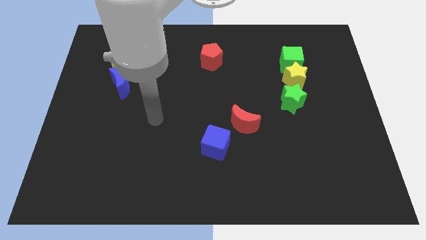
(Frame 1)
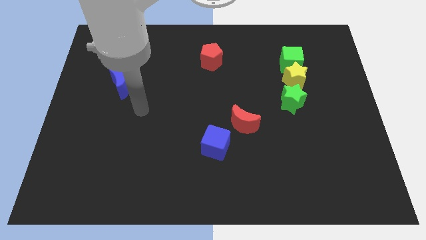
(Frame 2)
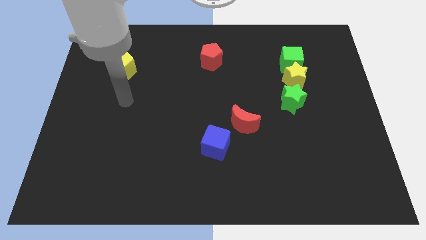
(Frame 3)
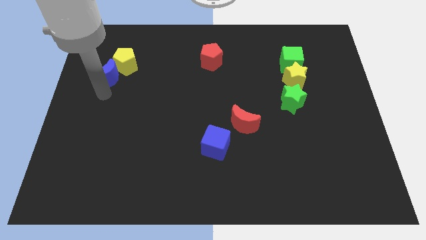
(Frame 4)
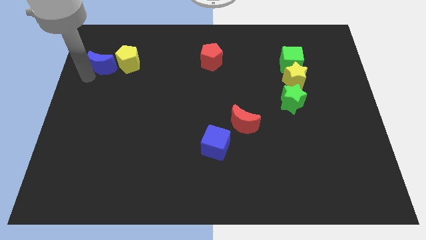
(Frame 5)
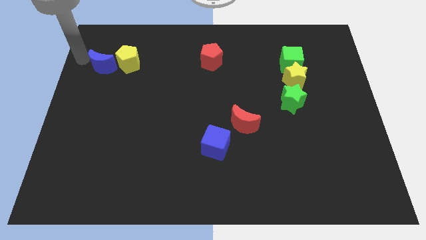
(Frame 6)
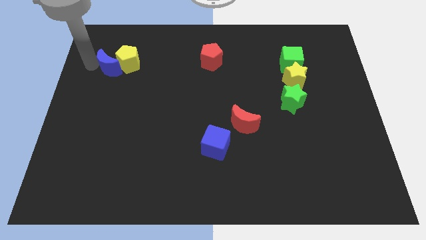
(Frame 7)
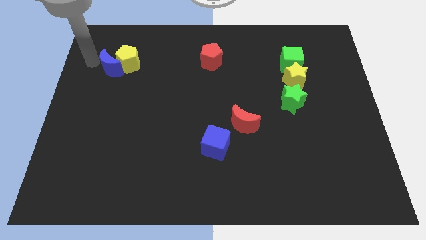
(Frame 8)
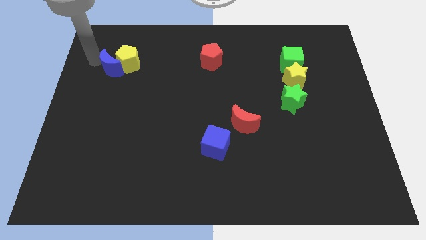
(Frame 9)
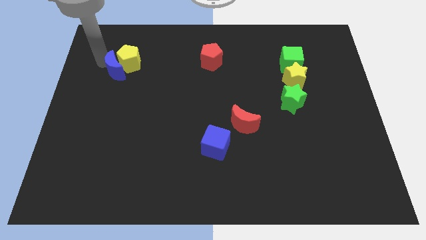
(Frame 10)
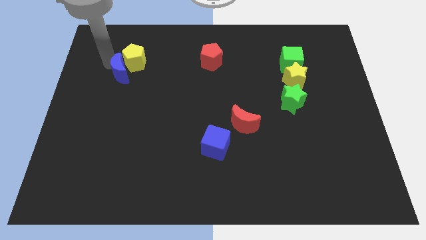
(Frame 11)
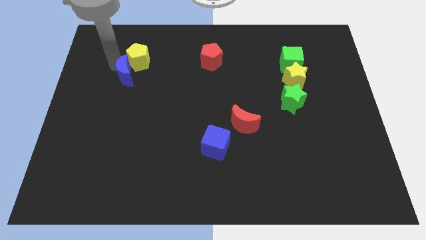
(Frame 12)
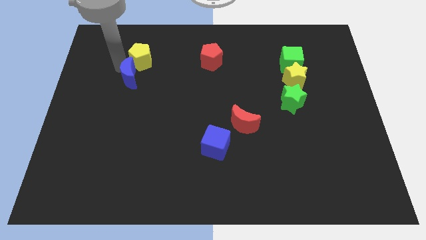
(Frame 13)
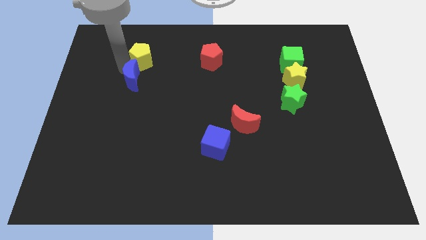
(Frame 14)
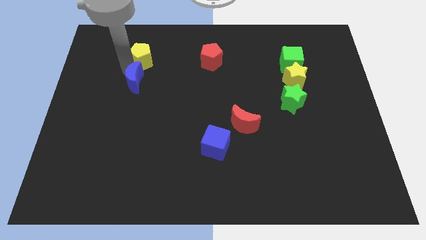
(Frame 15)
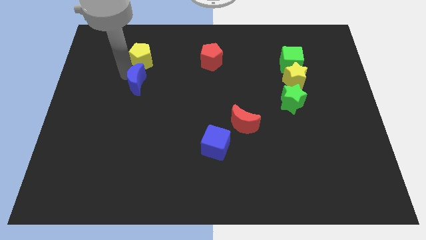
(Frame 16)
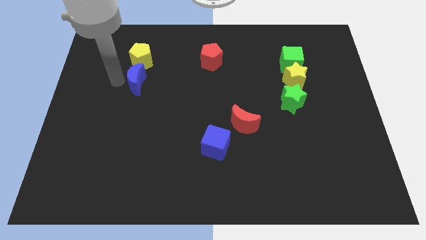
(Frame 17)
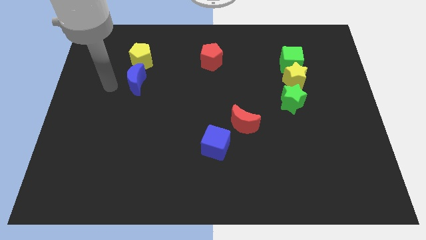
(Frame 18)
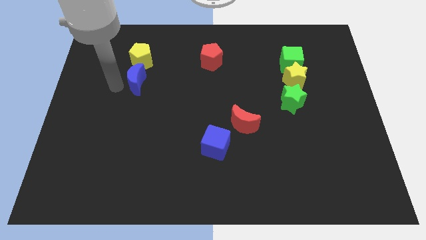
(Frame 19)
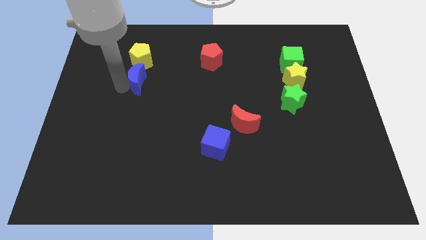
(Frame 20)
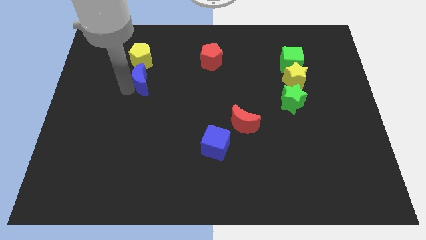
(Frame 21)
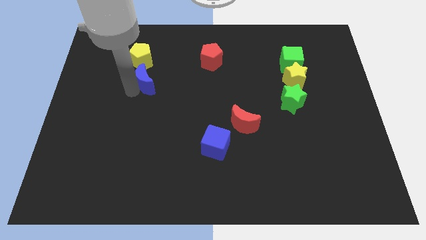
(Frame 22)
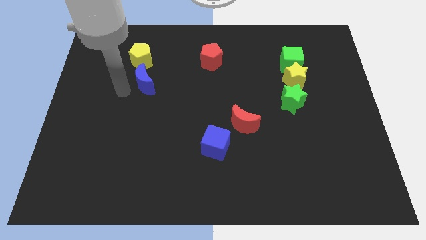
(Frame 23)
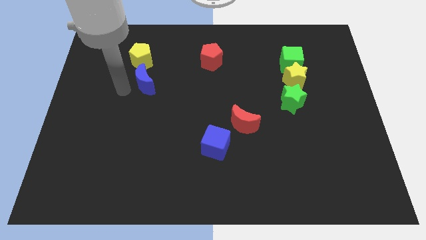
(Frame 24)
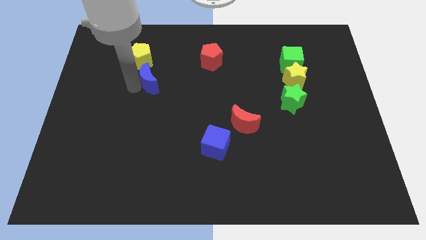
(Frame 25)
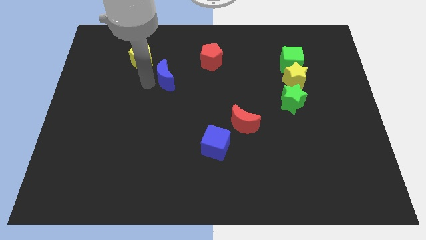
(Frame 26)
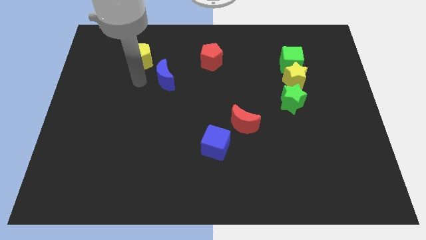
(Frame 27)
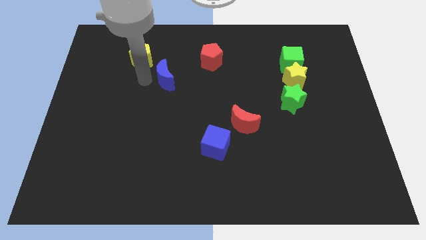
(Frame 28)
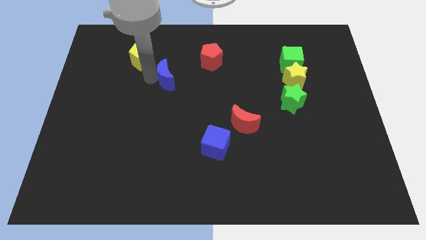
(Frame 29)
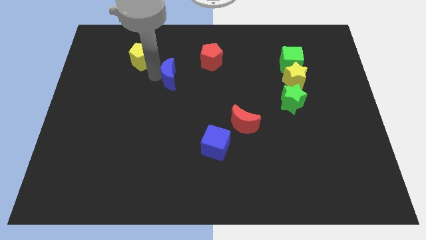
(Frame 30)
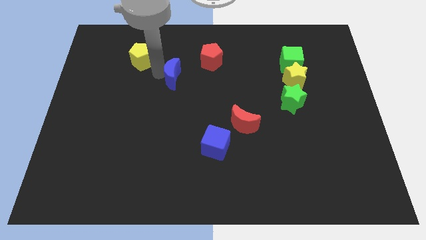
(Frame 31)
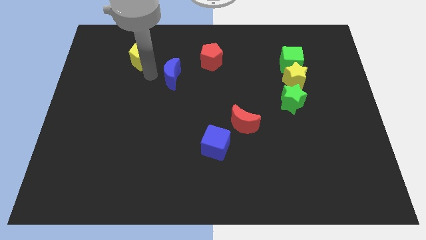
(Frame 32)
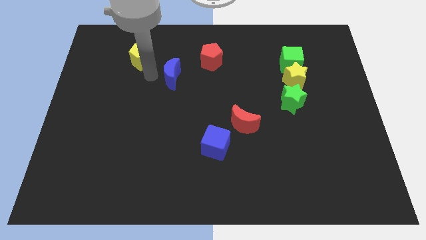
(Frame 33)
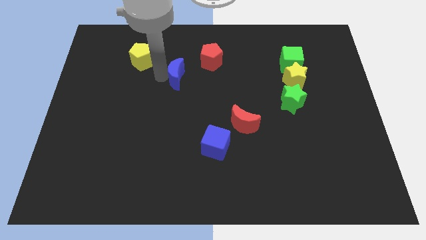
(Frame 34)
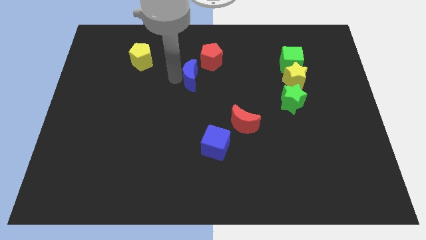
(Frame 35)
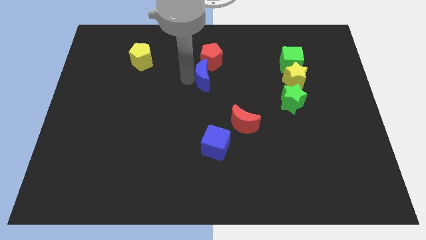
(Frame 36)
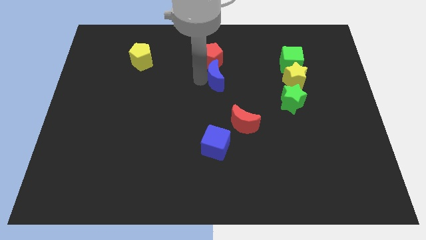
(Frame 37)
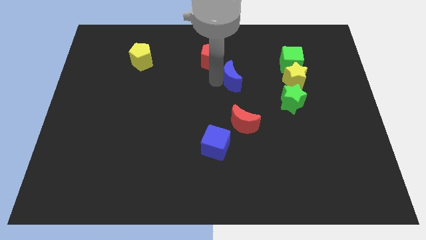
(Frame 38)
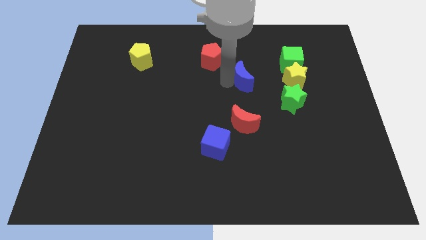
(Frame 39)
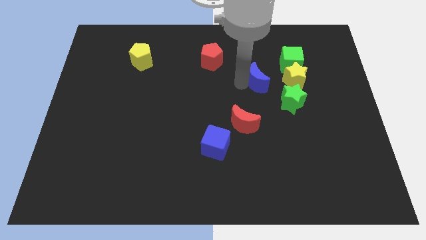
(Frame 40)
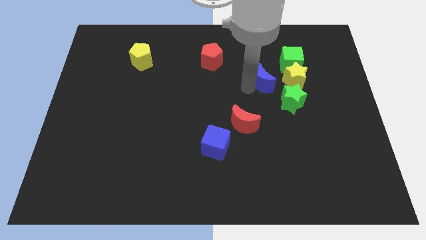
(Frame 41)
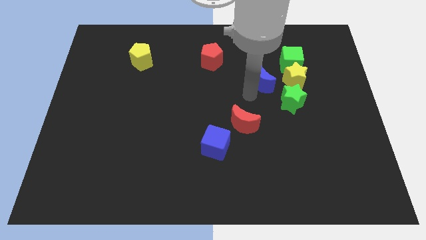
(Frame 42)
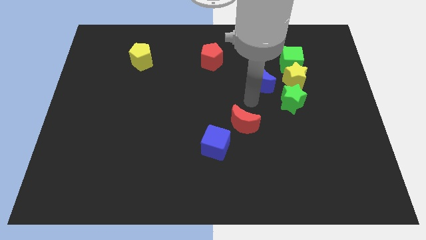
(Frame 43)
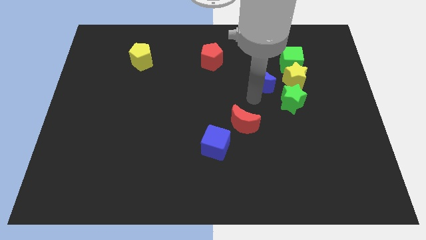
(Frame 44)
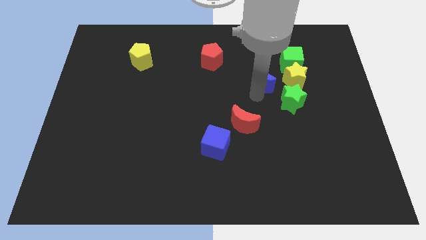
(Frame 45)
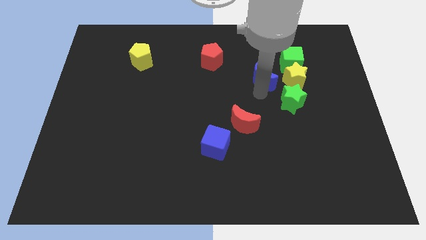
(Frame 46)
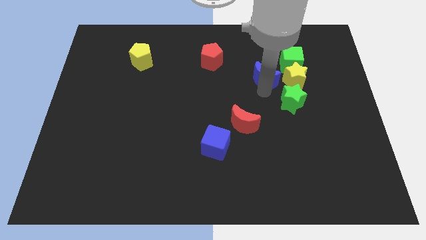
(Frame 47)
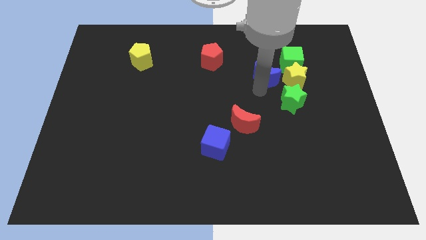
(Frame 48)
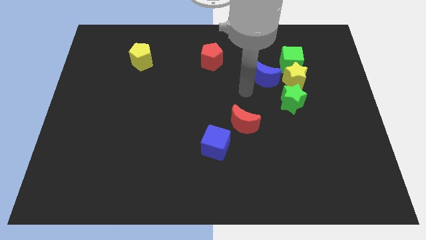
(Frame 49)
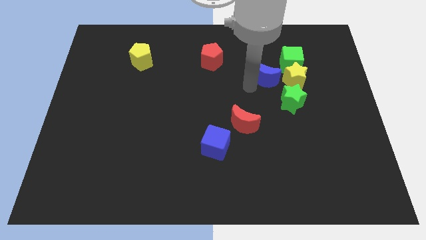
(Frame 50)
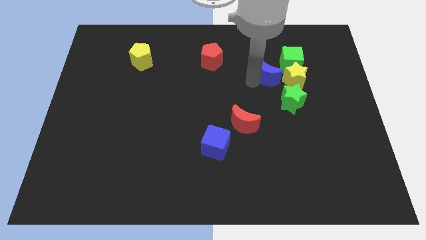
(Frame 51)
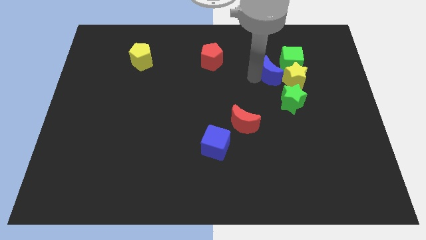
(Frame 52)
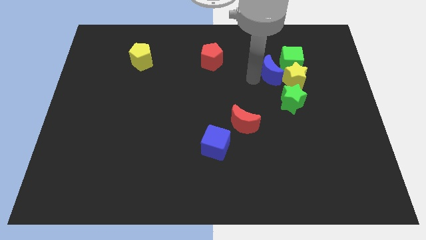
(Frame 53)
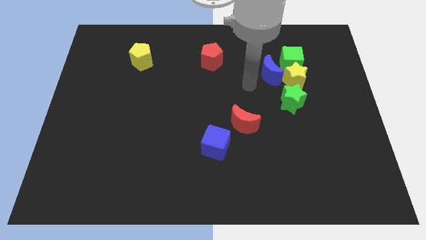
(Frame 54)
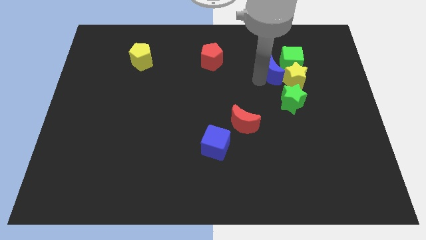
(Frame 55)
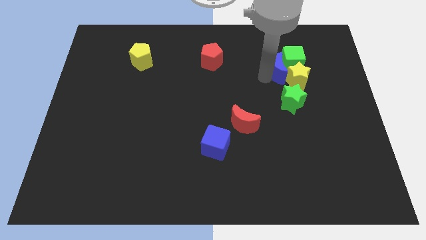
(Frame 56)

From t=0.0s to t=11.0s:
move the blue moon to the green cube

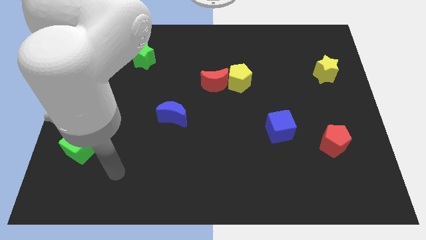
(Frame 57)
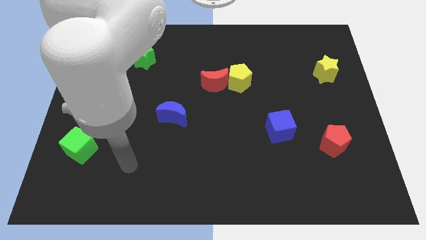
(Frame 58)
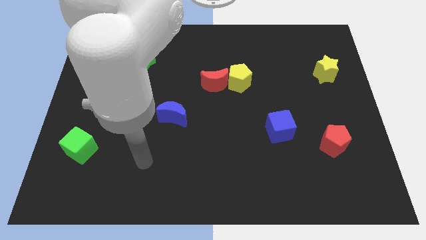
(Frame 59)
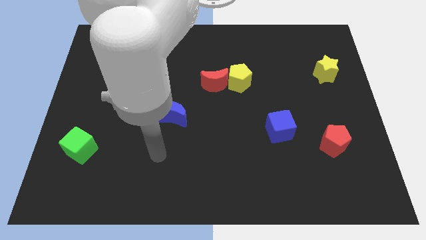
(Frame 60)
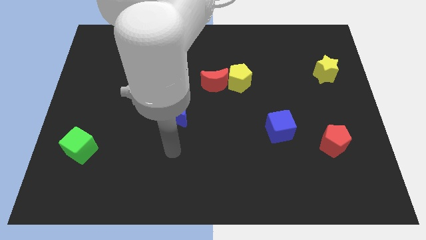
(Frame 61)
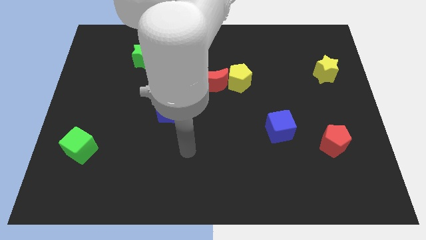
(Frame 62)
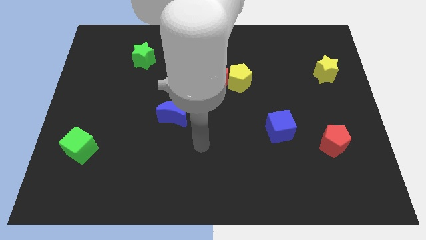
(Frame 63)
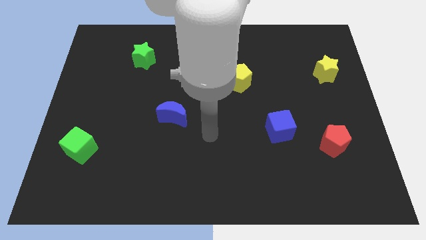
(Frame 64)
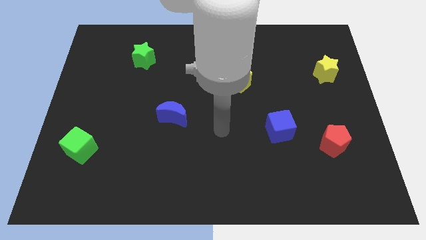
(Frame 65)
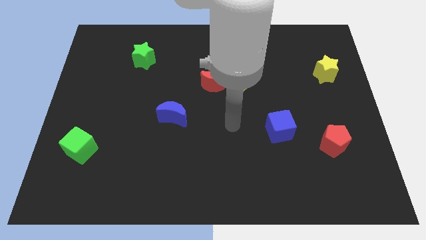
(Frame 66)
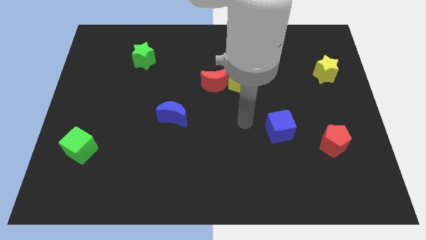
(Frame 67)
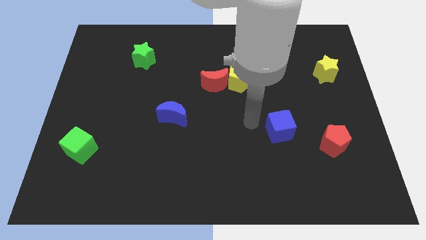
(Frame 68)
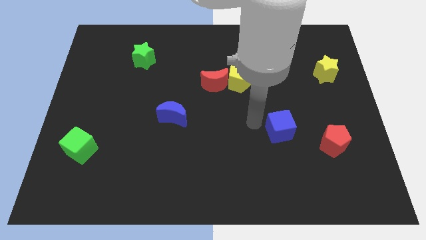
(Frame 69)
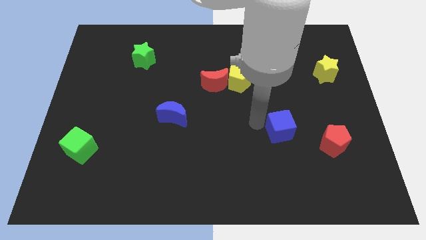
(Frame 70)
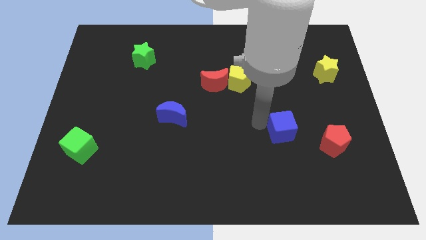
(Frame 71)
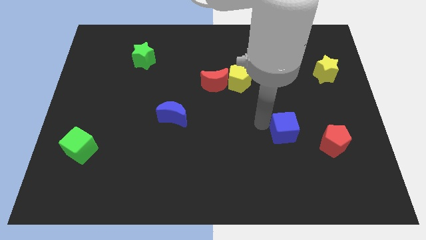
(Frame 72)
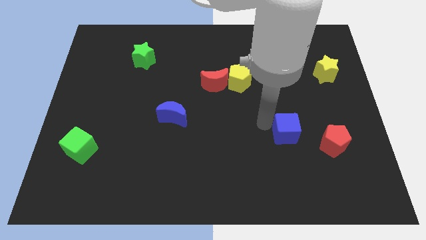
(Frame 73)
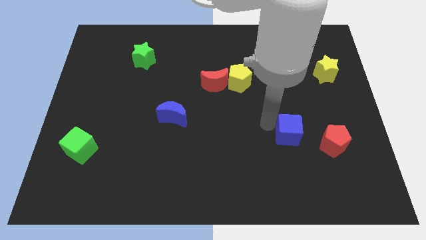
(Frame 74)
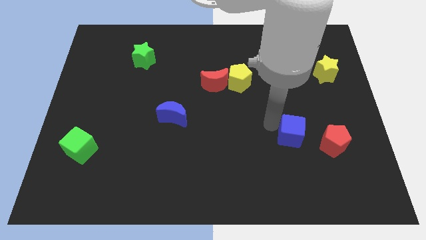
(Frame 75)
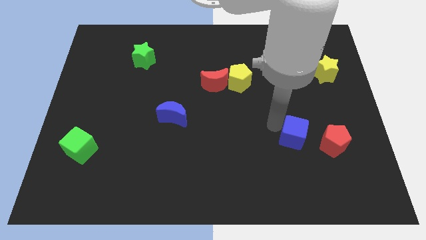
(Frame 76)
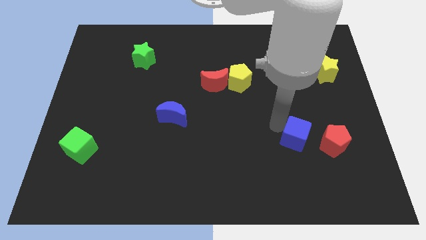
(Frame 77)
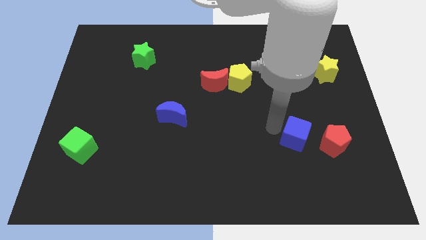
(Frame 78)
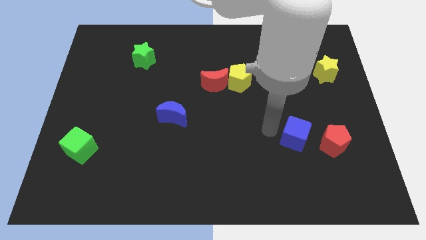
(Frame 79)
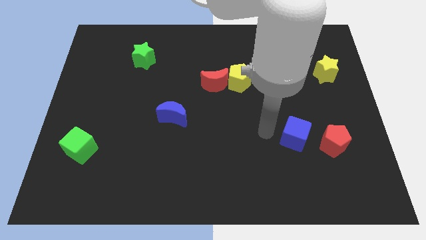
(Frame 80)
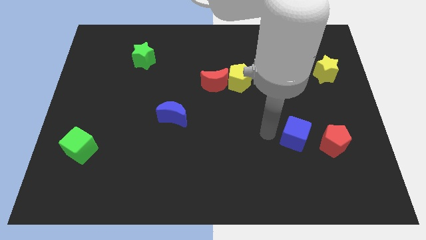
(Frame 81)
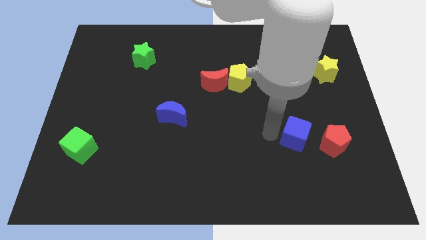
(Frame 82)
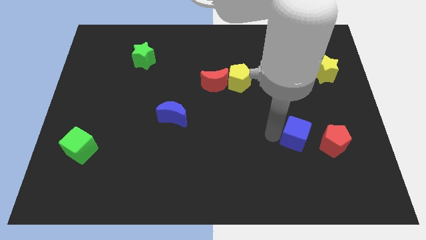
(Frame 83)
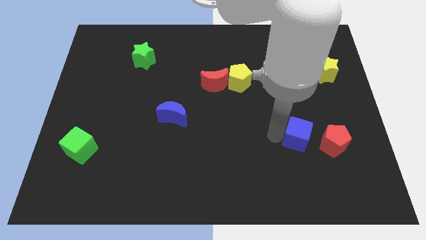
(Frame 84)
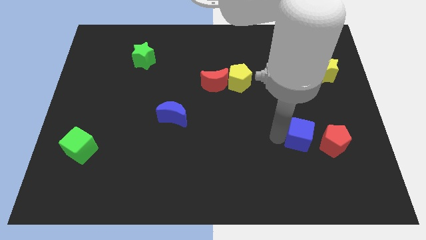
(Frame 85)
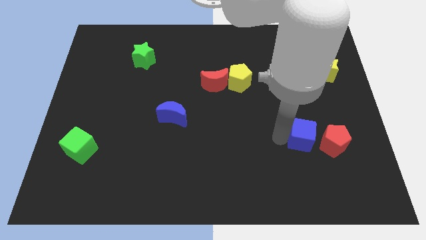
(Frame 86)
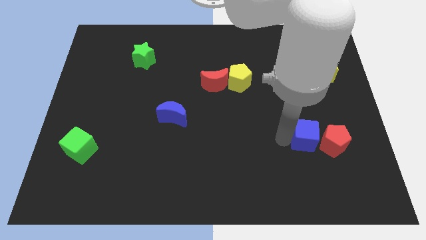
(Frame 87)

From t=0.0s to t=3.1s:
put the blue cube to the red pentagon
